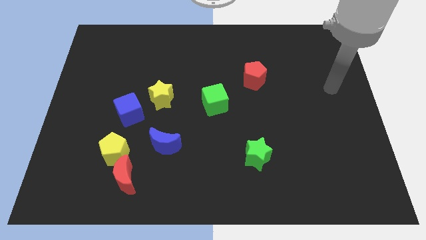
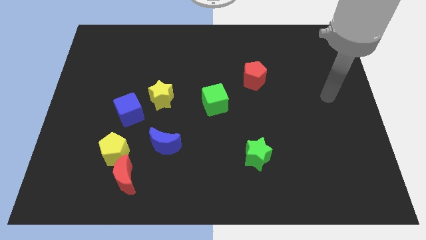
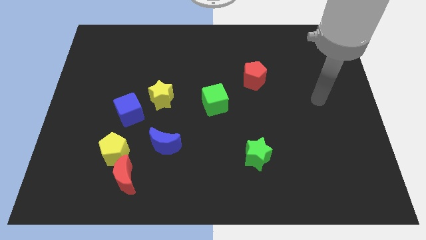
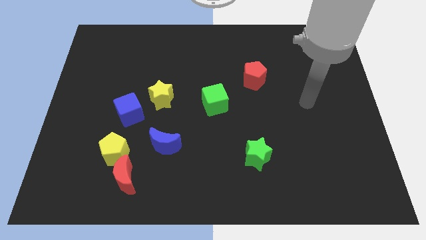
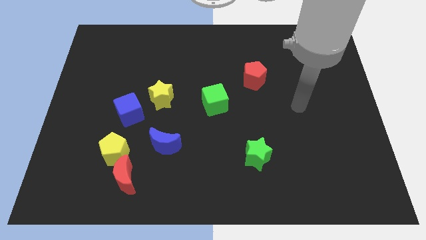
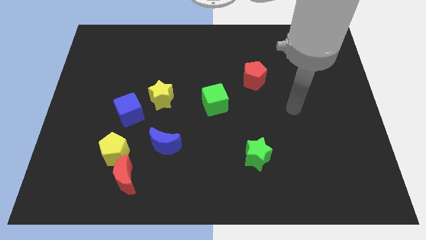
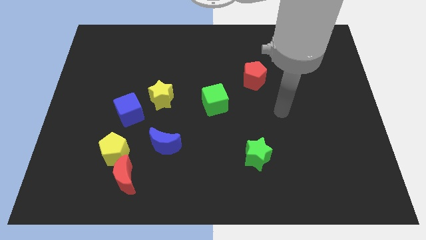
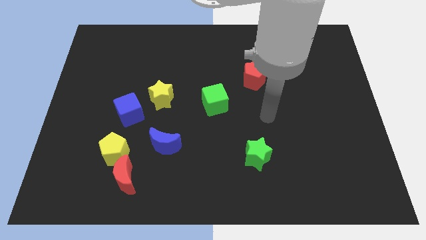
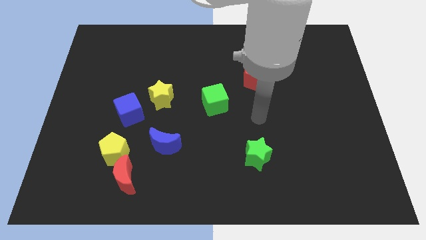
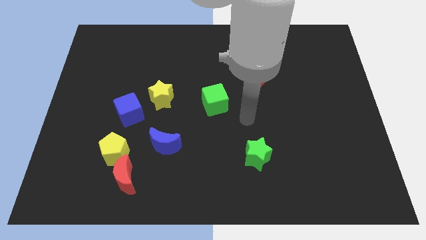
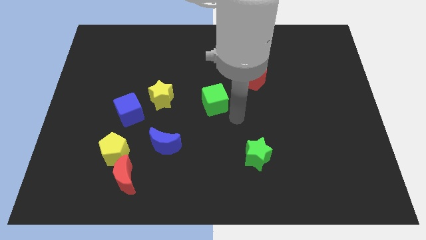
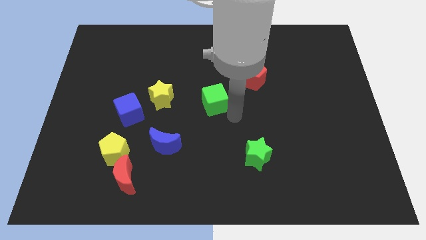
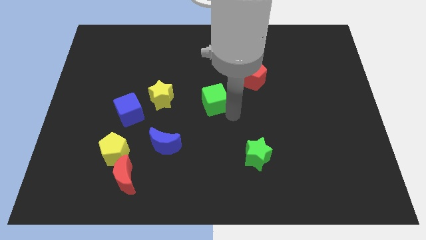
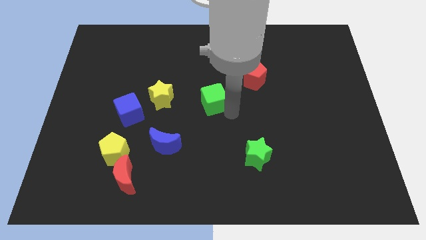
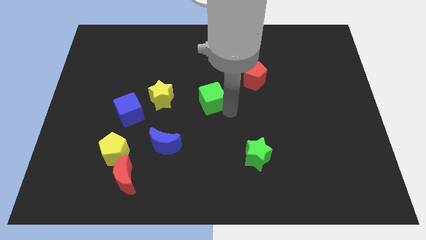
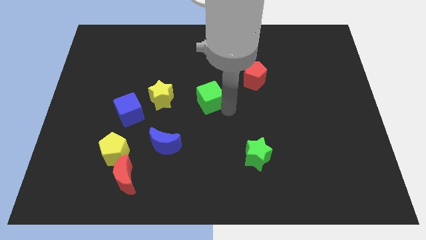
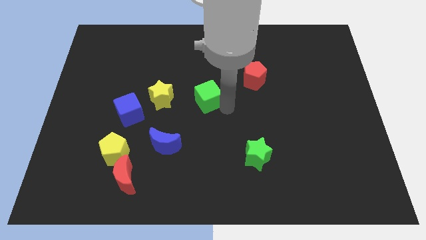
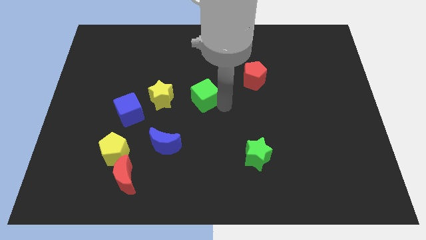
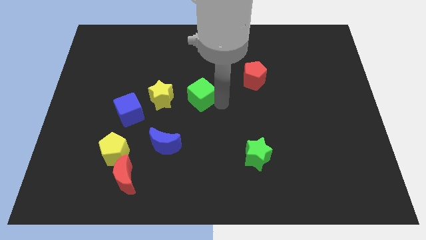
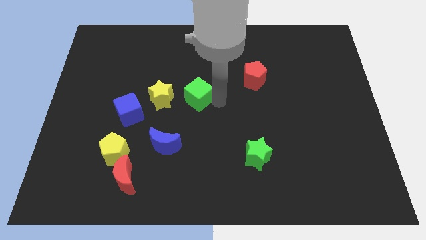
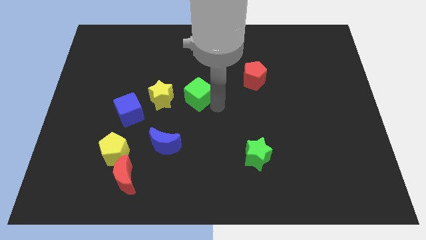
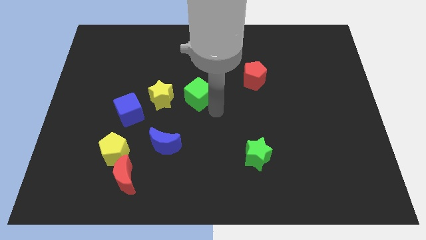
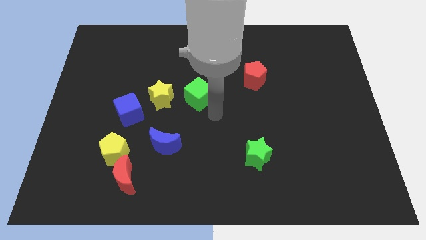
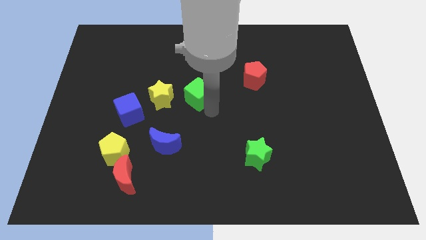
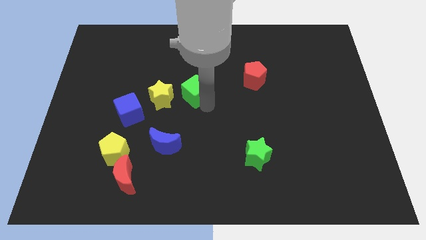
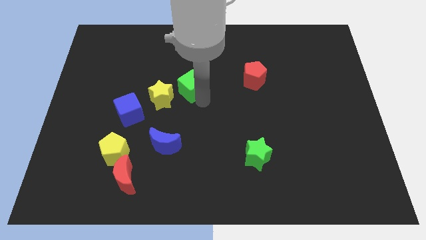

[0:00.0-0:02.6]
slightly push the green cube diagonally upwards and to the left

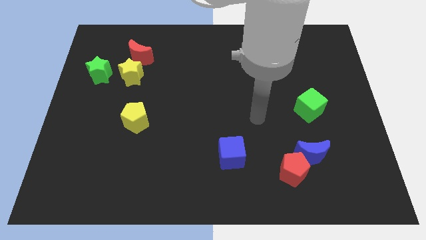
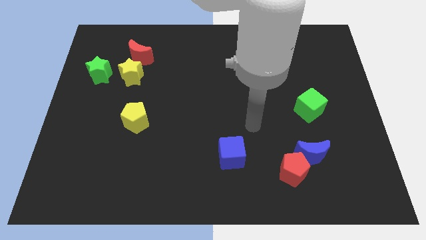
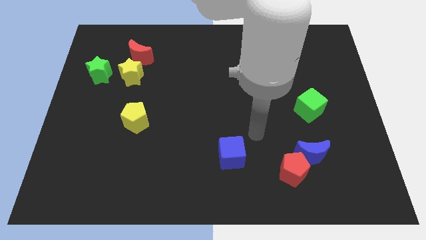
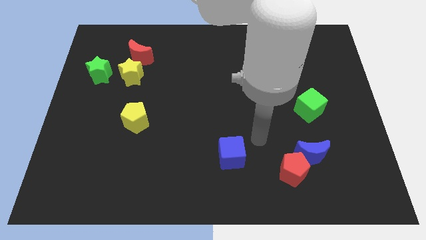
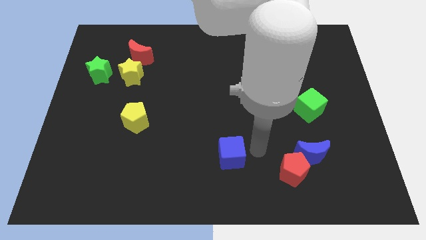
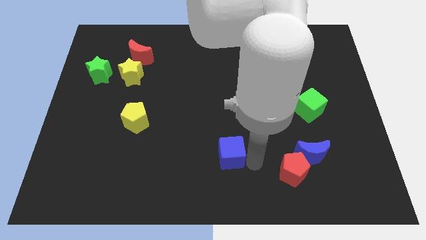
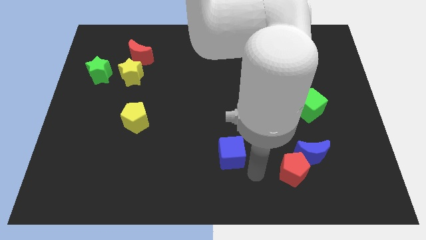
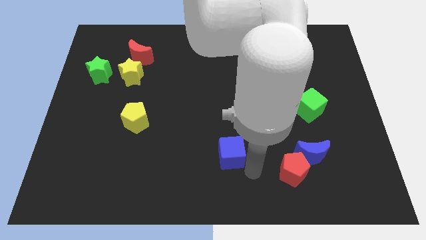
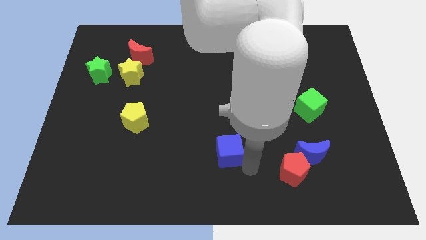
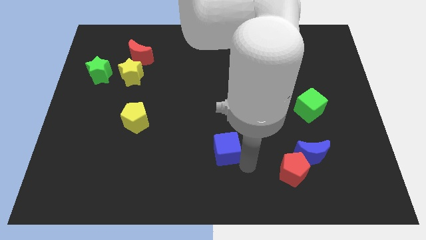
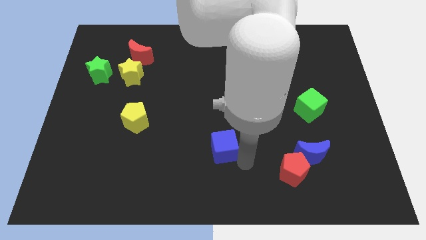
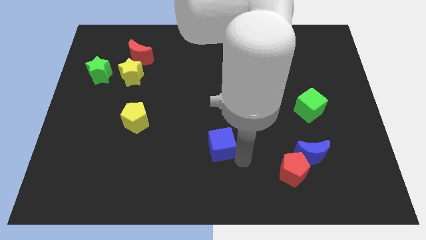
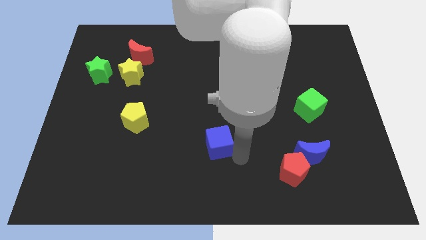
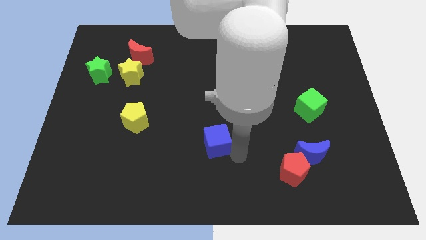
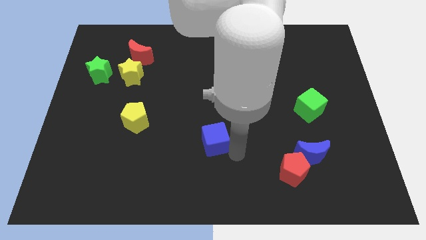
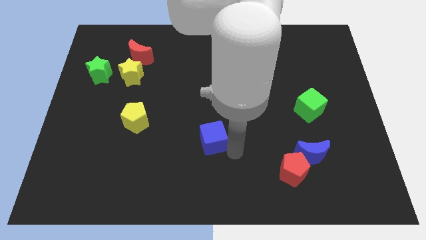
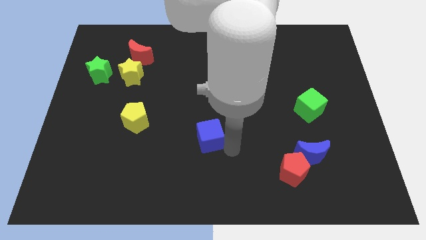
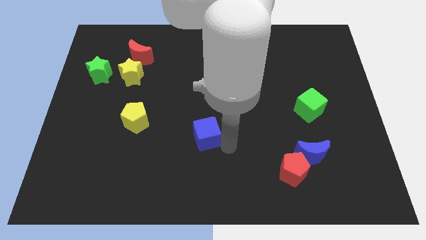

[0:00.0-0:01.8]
slide the blue cube a little up and then left

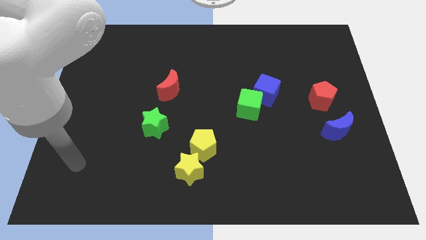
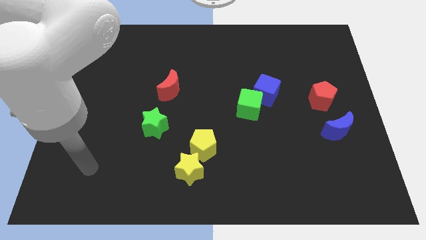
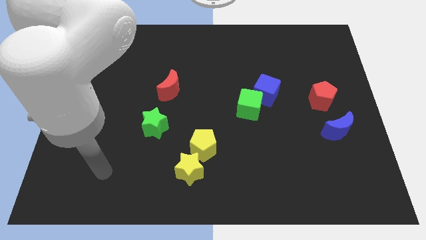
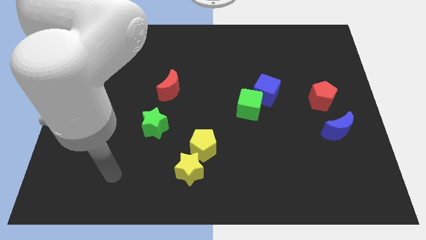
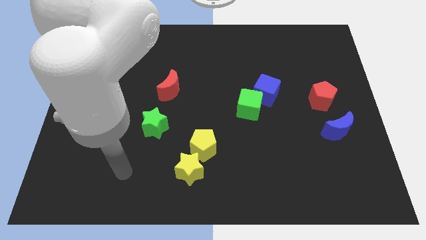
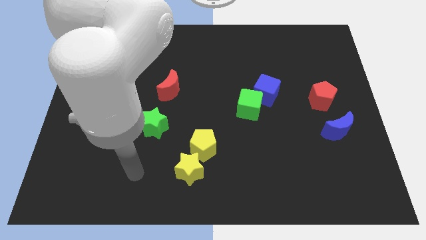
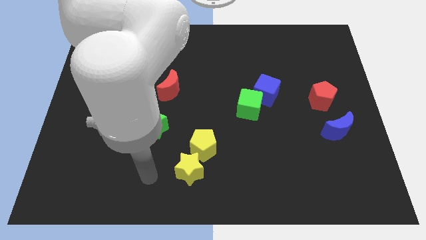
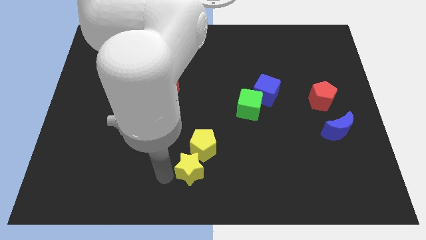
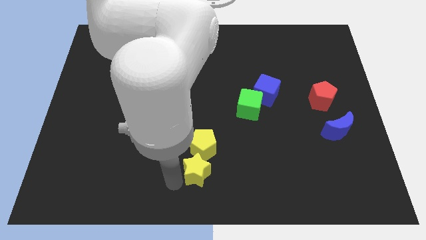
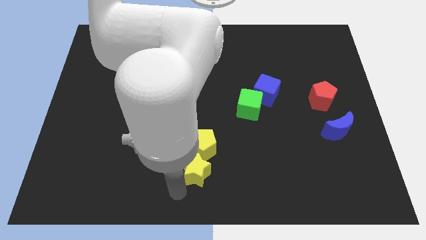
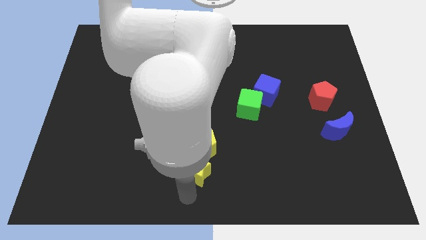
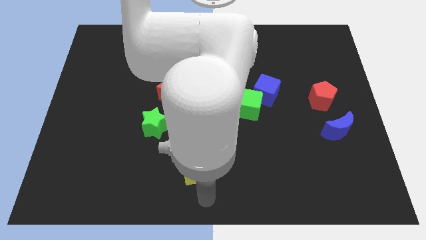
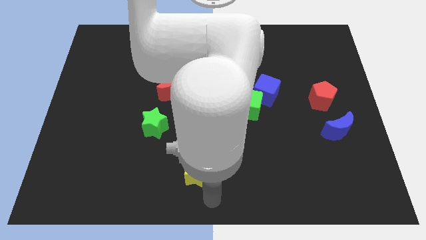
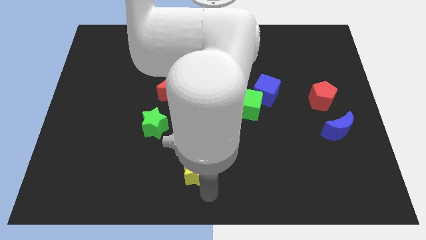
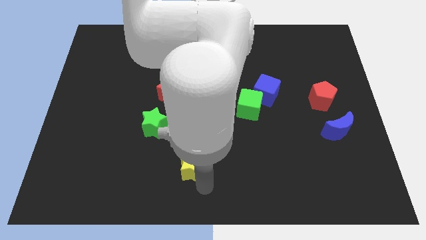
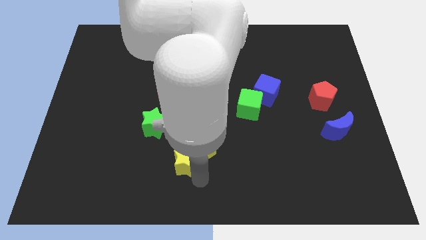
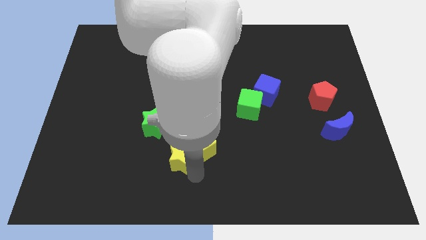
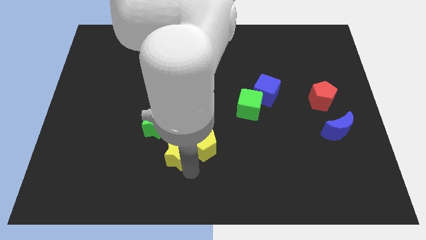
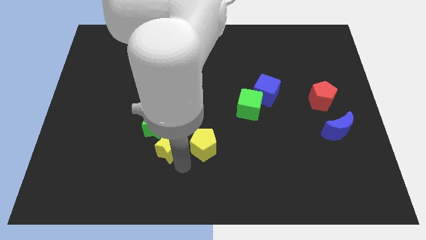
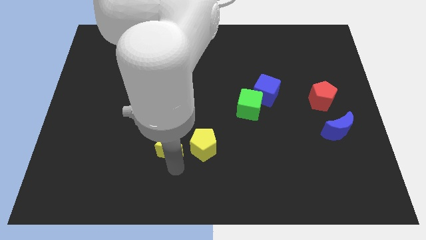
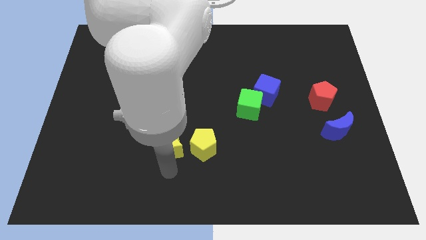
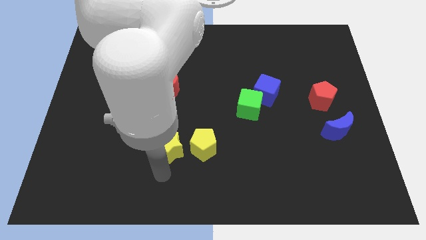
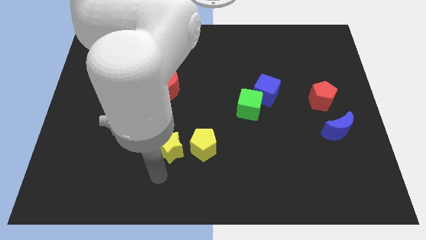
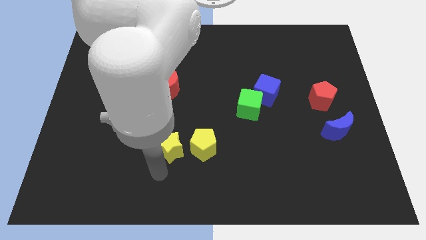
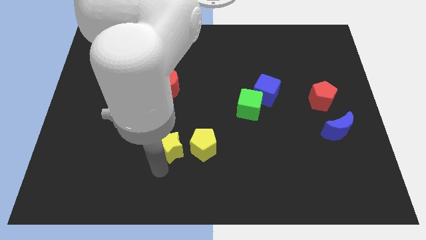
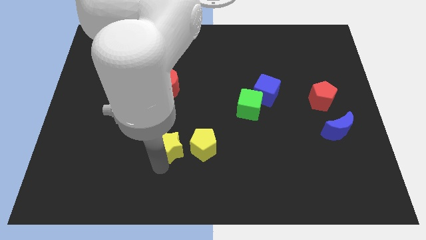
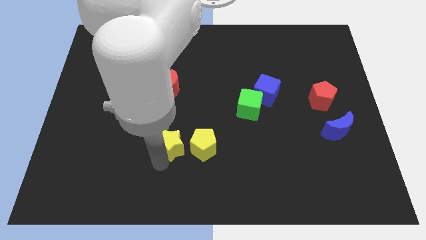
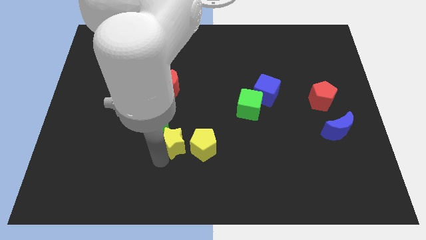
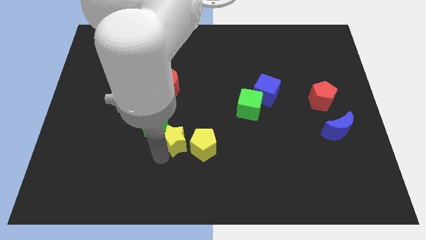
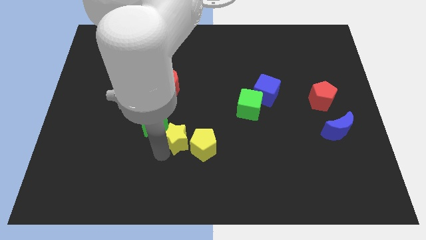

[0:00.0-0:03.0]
move the yellow star up a bit

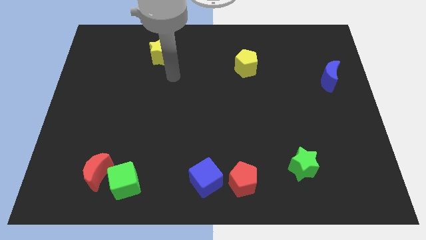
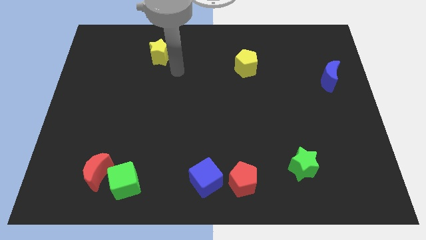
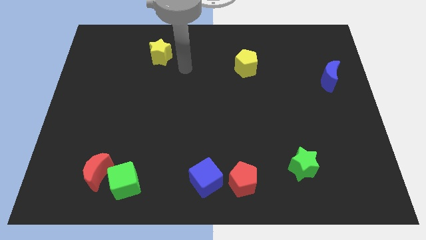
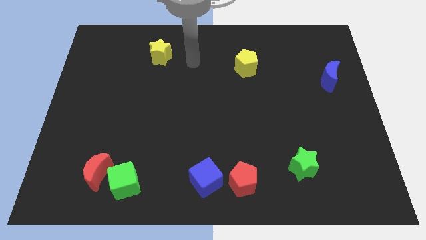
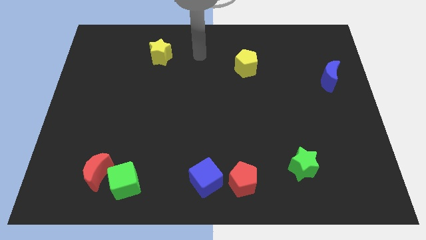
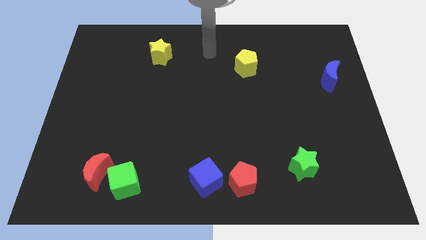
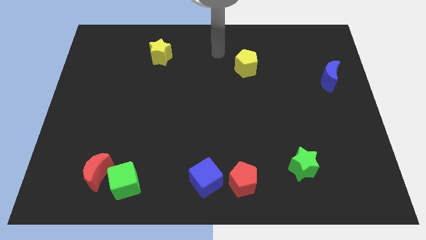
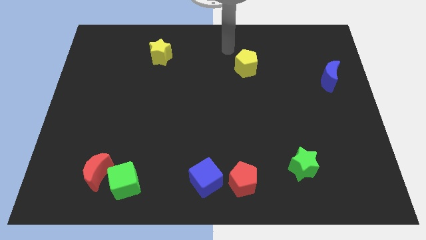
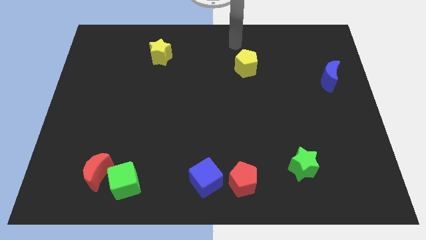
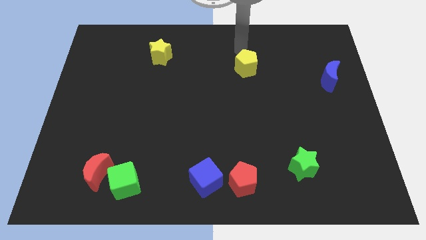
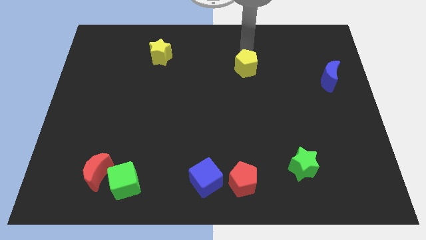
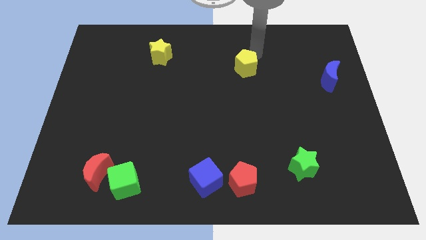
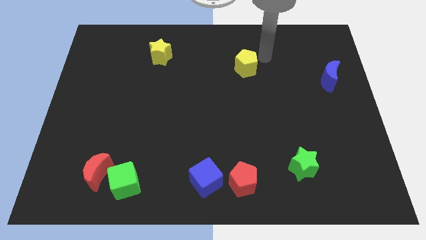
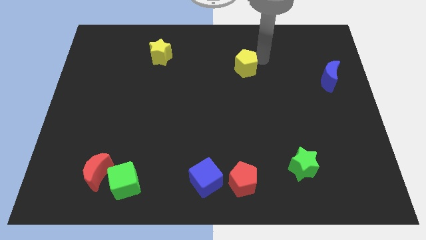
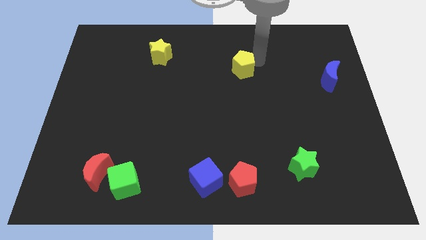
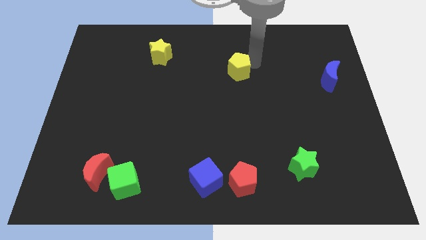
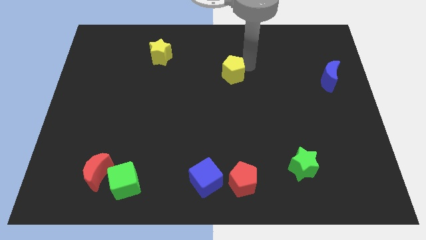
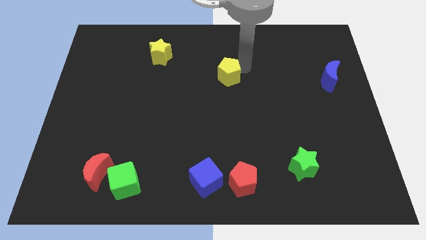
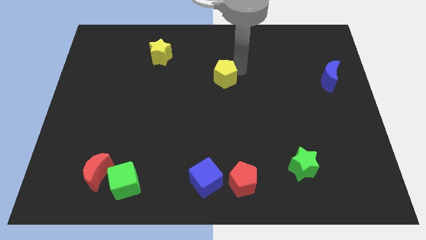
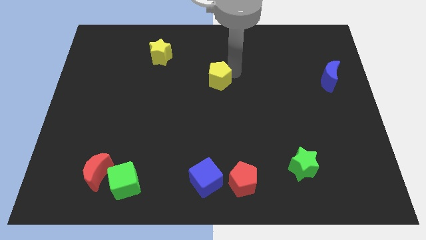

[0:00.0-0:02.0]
slide the yellow pentagon somewhat downwards and to the left diagonally
